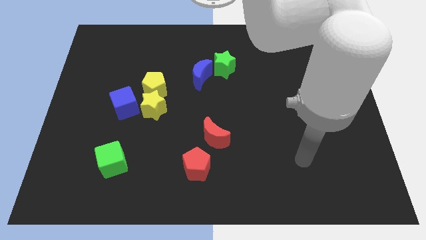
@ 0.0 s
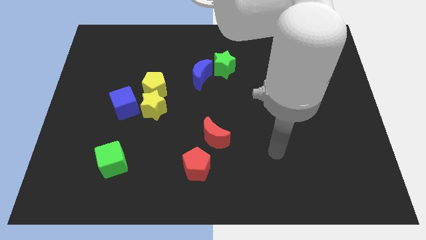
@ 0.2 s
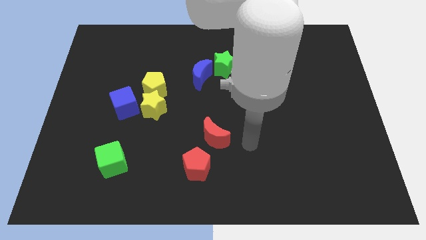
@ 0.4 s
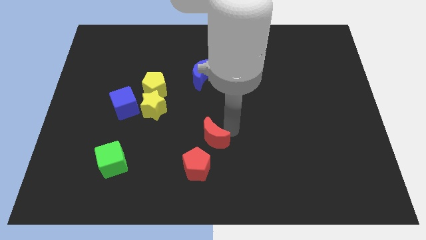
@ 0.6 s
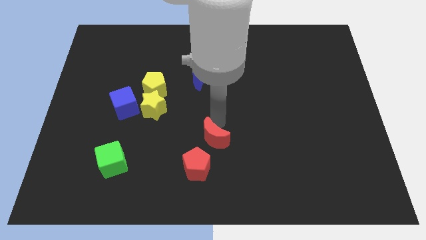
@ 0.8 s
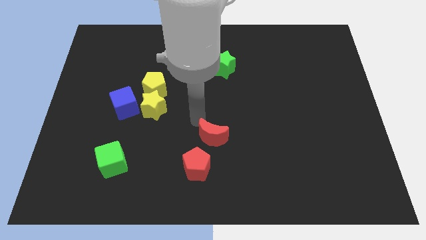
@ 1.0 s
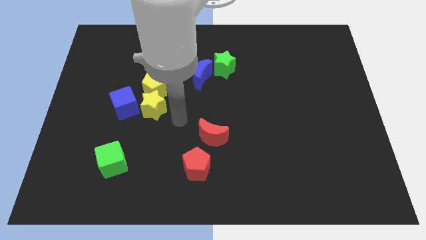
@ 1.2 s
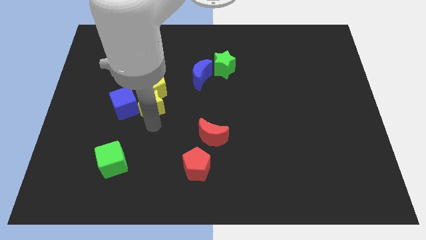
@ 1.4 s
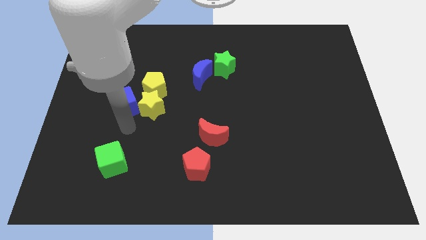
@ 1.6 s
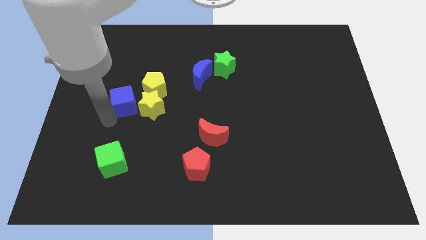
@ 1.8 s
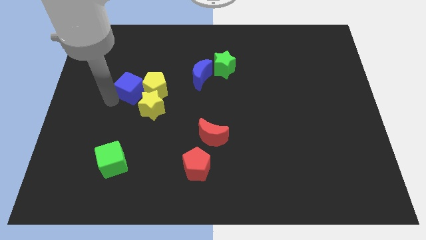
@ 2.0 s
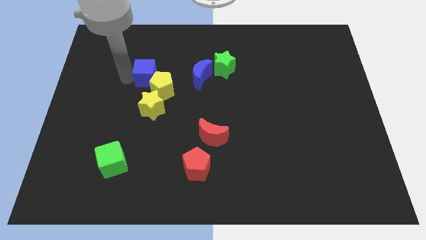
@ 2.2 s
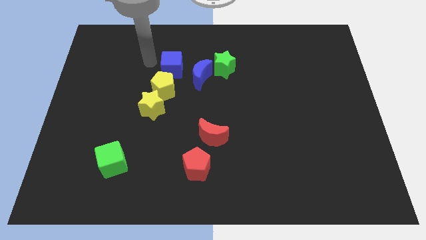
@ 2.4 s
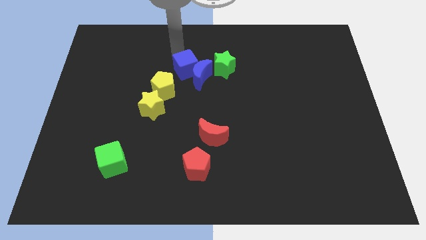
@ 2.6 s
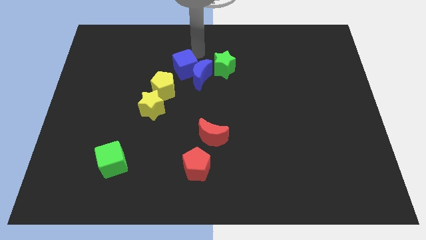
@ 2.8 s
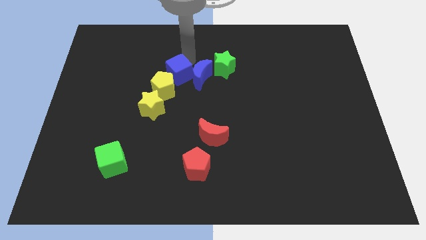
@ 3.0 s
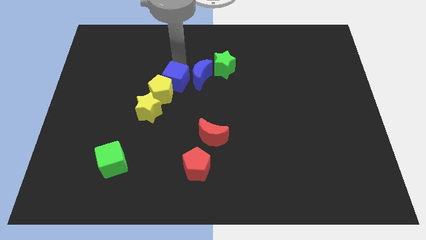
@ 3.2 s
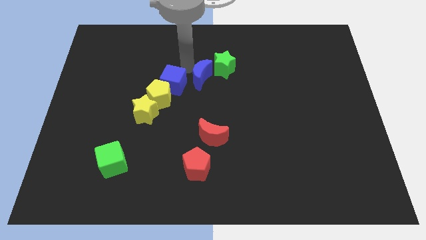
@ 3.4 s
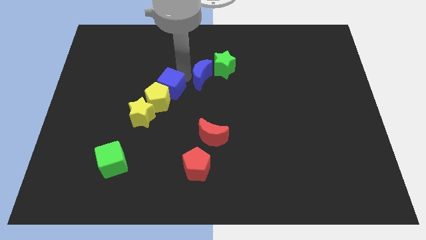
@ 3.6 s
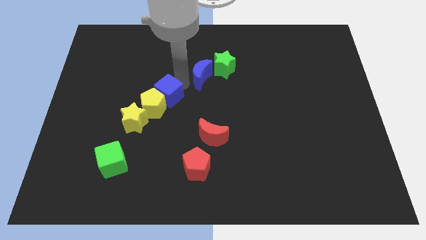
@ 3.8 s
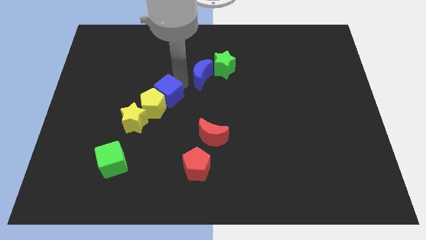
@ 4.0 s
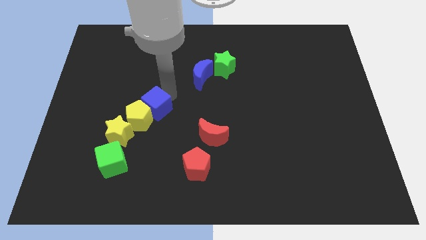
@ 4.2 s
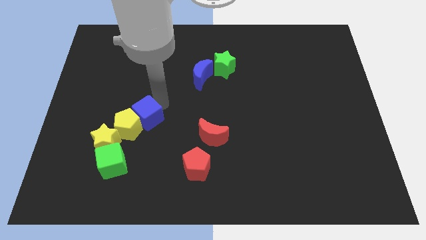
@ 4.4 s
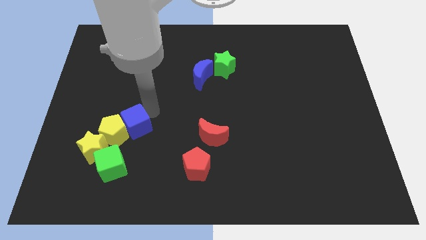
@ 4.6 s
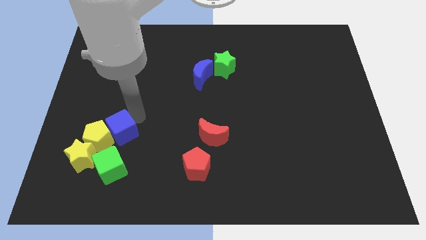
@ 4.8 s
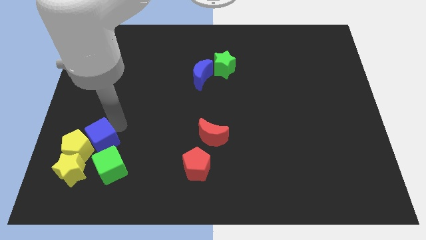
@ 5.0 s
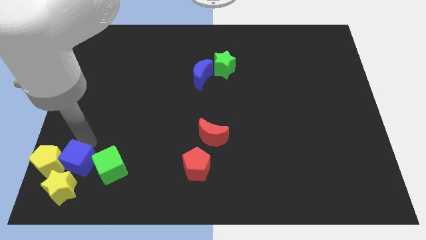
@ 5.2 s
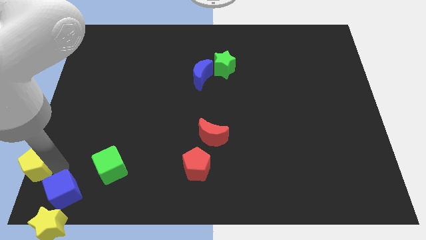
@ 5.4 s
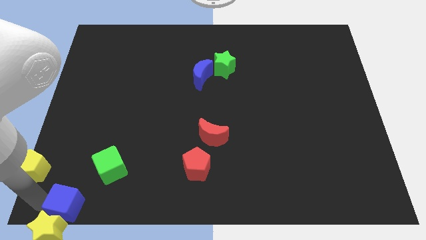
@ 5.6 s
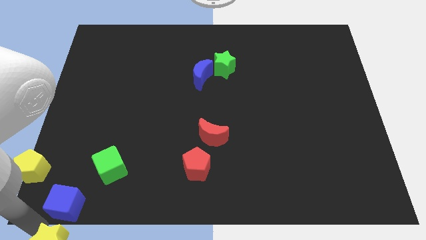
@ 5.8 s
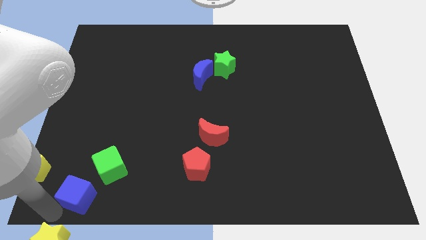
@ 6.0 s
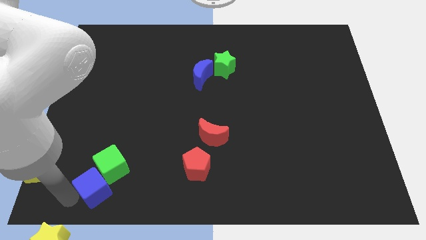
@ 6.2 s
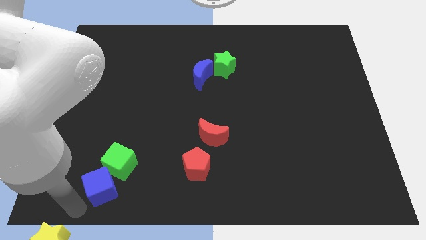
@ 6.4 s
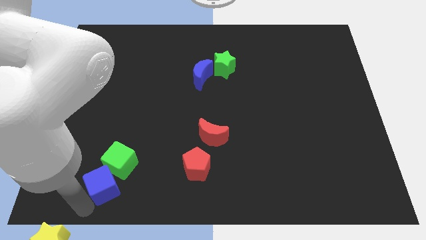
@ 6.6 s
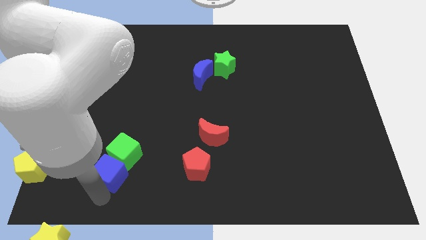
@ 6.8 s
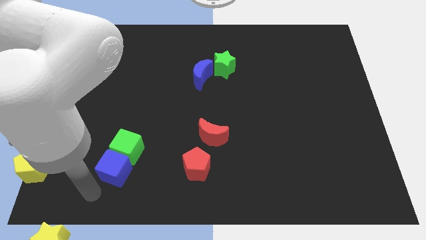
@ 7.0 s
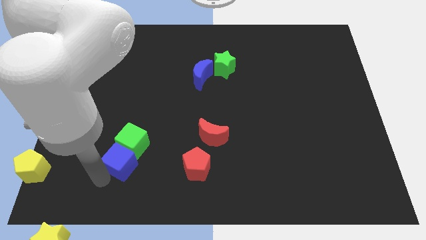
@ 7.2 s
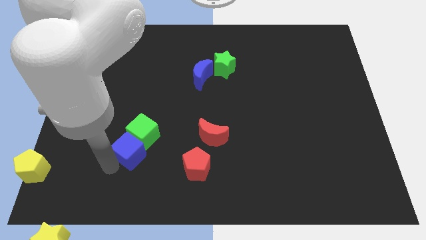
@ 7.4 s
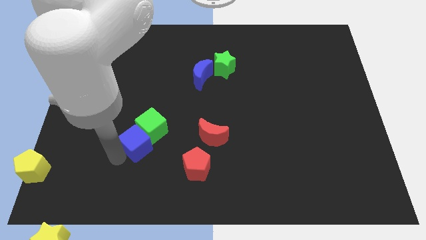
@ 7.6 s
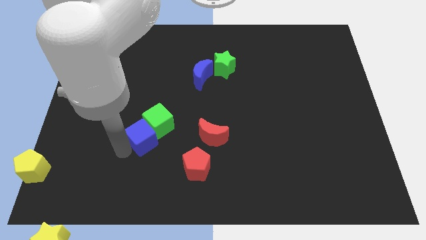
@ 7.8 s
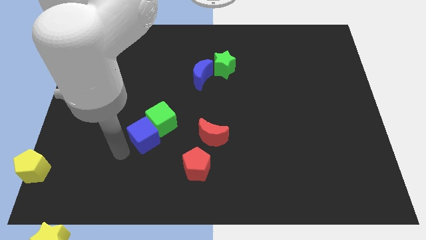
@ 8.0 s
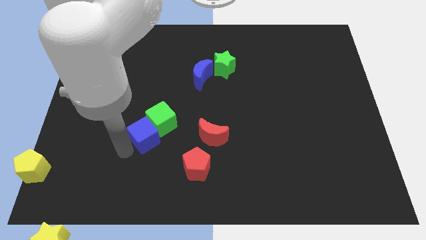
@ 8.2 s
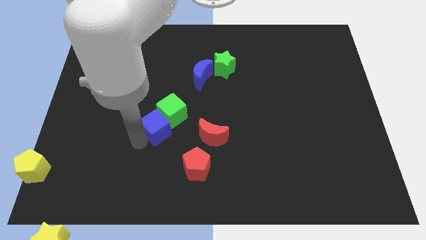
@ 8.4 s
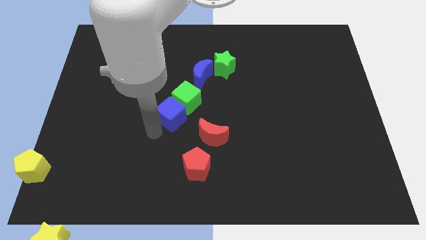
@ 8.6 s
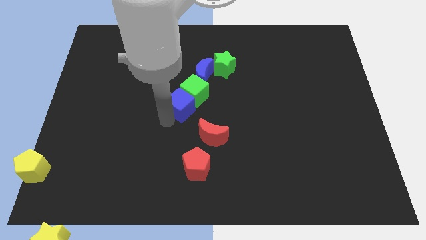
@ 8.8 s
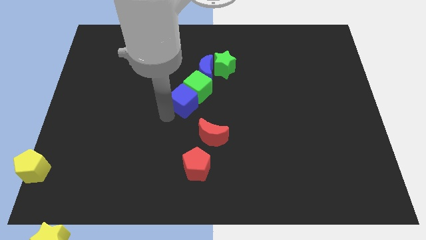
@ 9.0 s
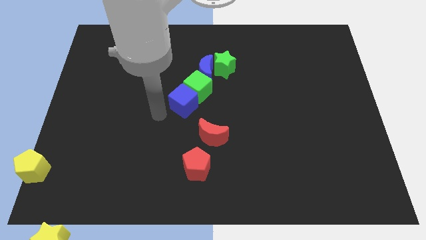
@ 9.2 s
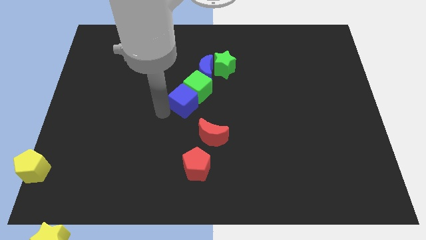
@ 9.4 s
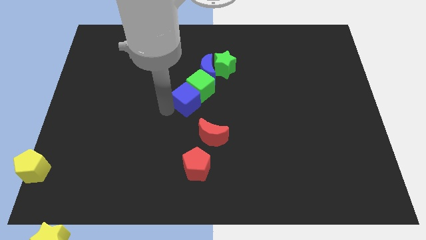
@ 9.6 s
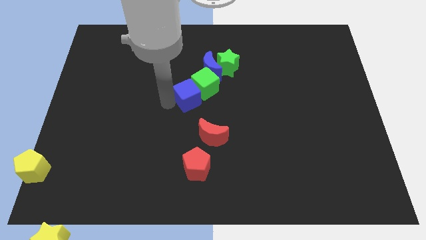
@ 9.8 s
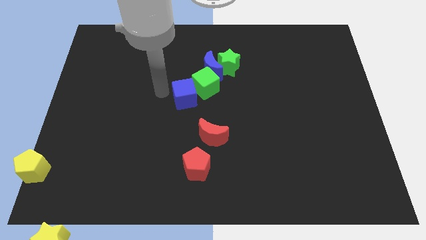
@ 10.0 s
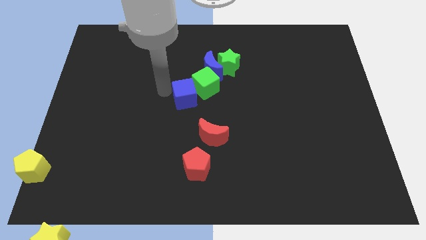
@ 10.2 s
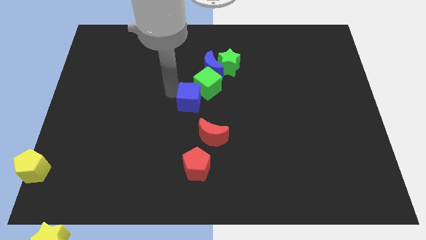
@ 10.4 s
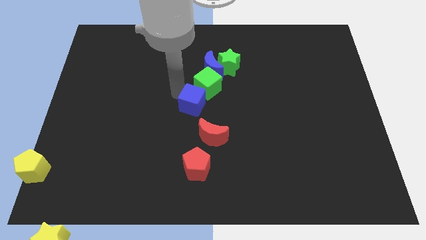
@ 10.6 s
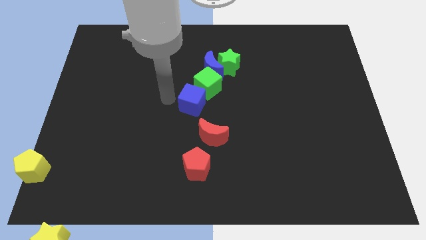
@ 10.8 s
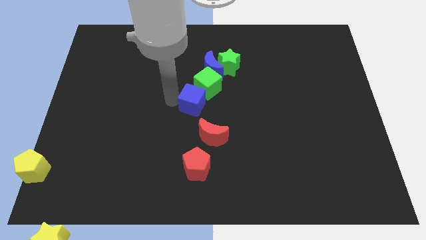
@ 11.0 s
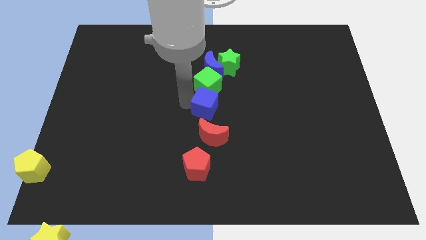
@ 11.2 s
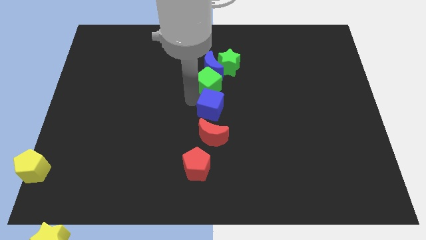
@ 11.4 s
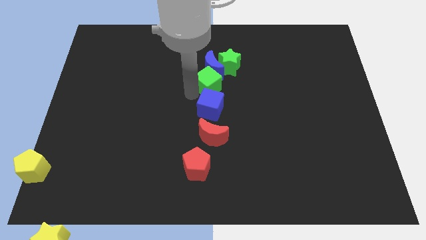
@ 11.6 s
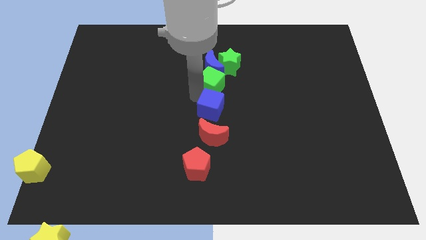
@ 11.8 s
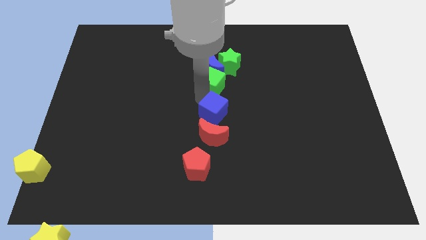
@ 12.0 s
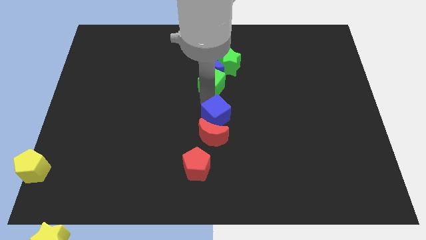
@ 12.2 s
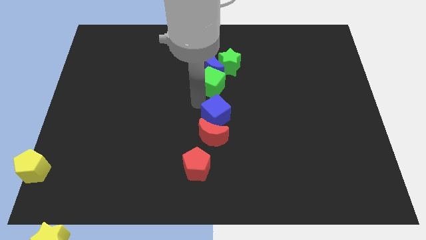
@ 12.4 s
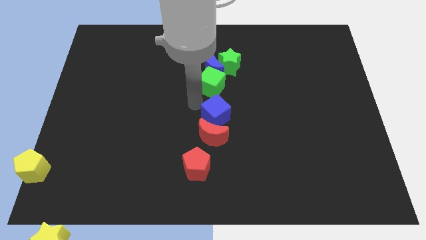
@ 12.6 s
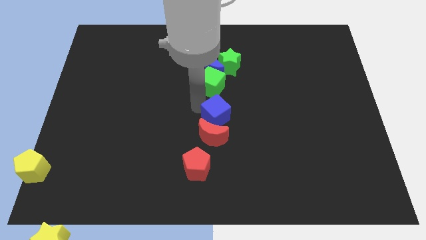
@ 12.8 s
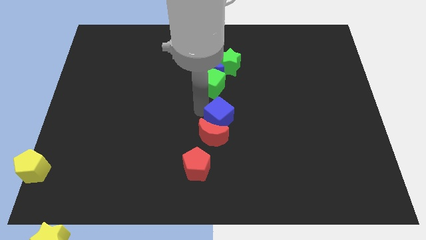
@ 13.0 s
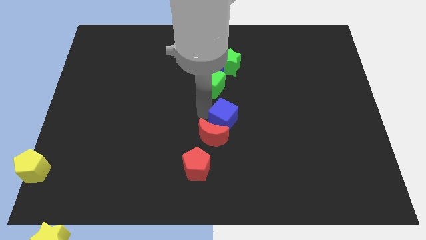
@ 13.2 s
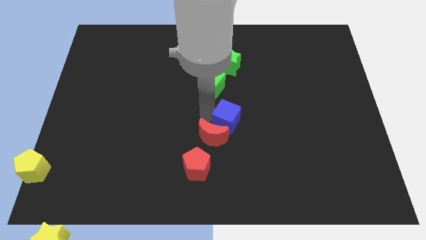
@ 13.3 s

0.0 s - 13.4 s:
push the blue cube right of the red moon

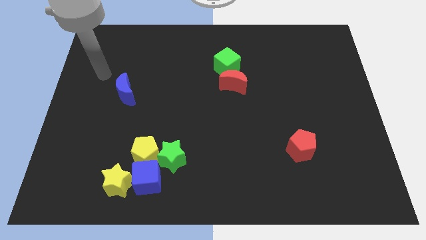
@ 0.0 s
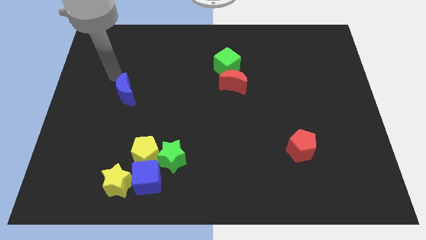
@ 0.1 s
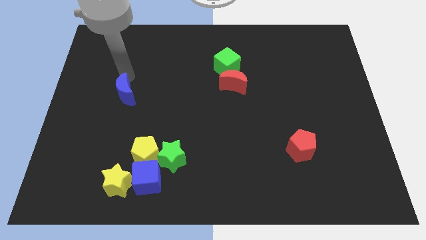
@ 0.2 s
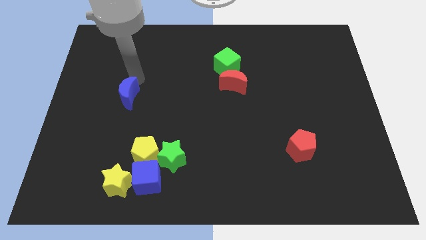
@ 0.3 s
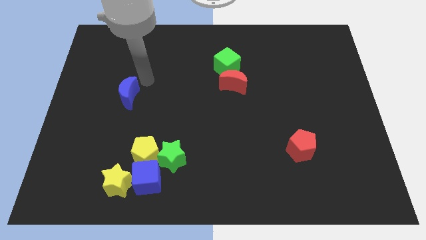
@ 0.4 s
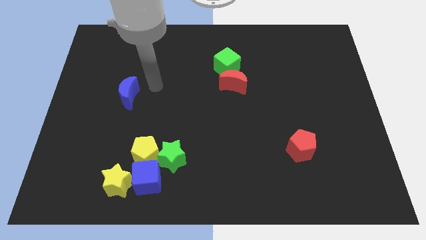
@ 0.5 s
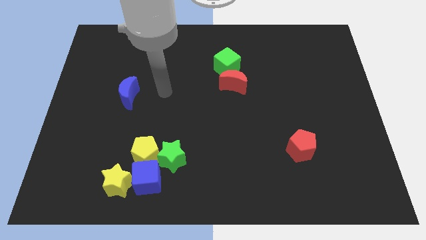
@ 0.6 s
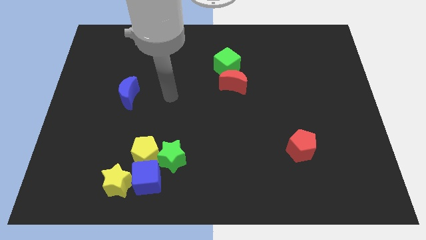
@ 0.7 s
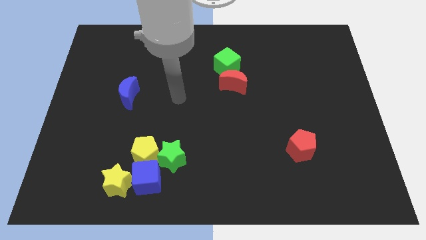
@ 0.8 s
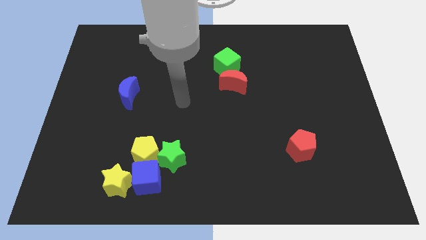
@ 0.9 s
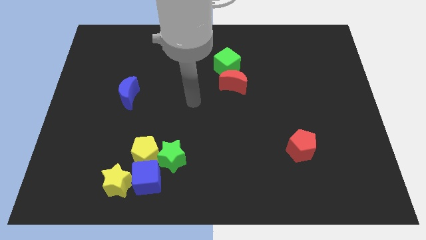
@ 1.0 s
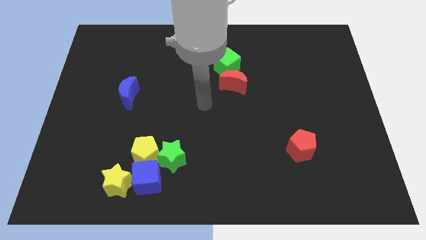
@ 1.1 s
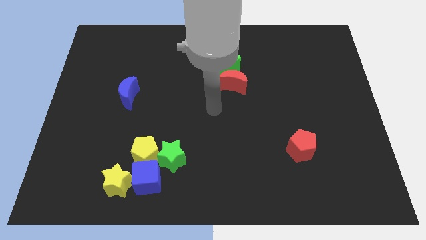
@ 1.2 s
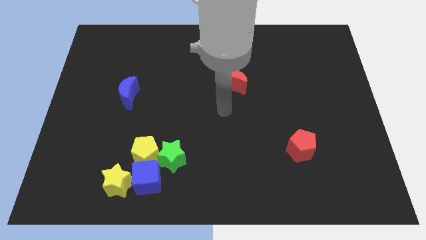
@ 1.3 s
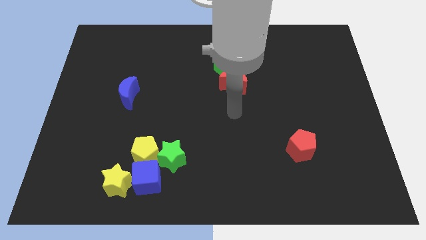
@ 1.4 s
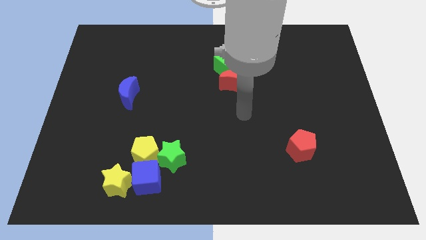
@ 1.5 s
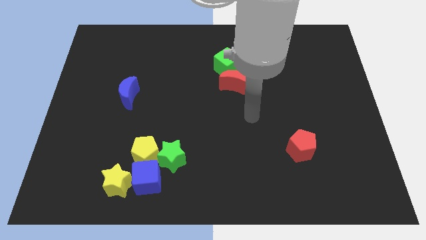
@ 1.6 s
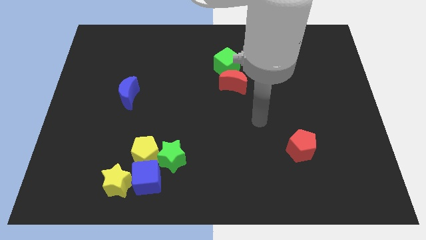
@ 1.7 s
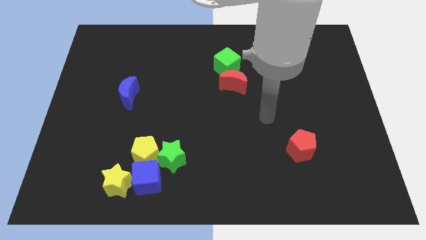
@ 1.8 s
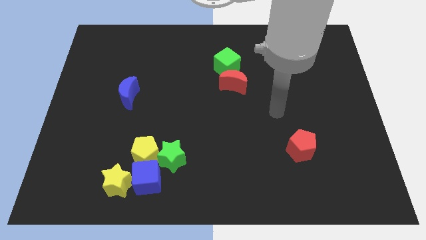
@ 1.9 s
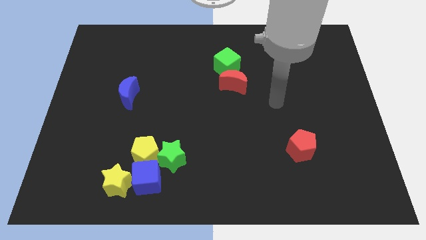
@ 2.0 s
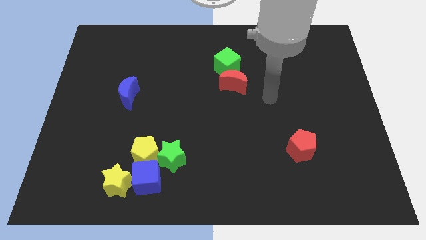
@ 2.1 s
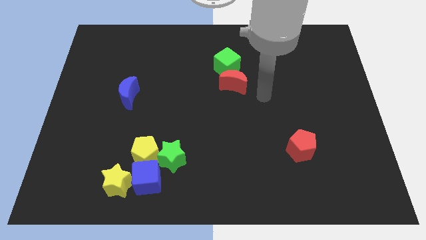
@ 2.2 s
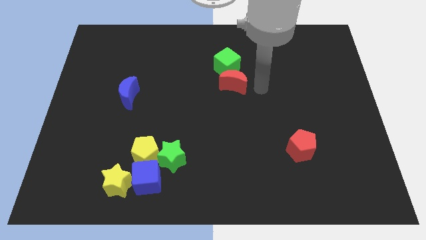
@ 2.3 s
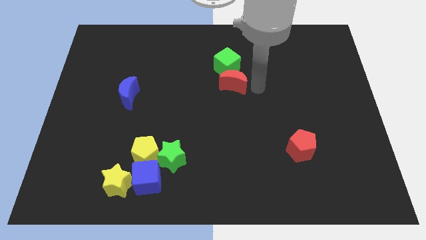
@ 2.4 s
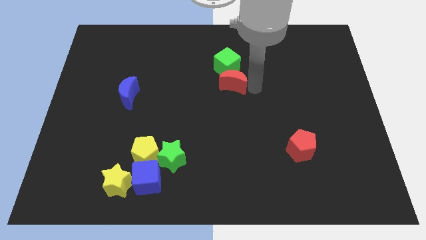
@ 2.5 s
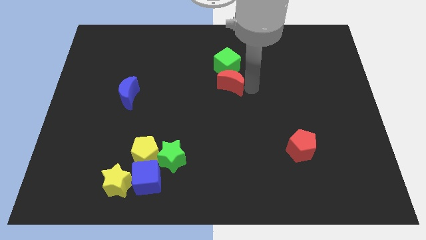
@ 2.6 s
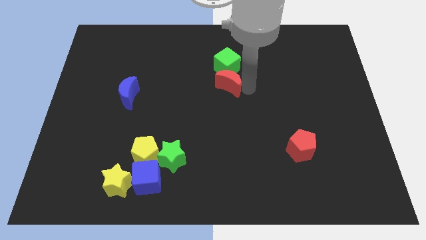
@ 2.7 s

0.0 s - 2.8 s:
push the red moon to the bottom left side of the green cube
